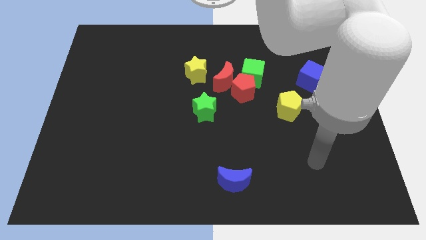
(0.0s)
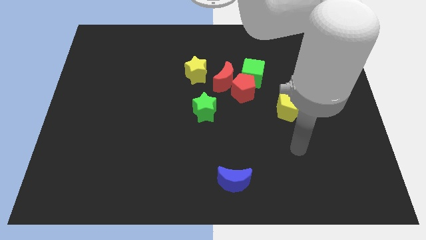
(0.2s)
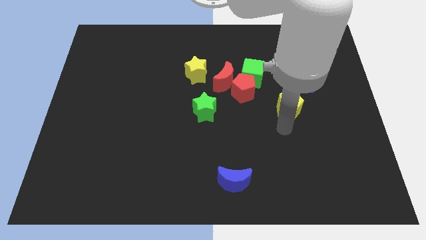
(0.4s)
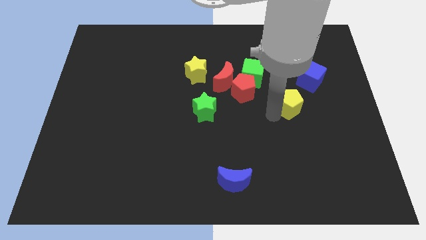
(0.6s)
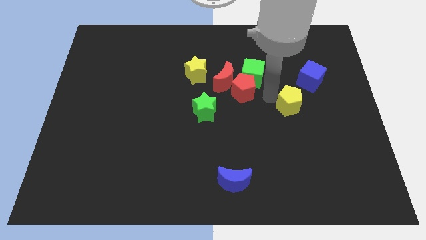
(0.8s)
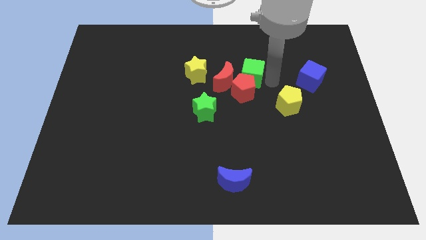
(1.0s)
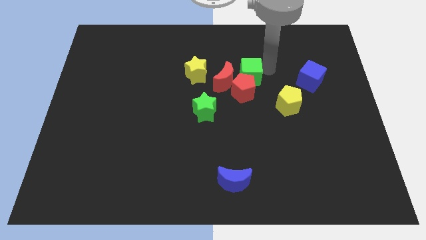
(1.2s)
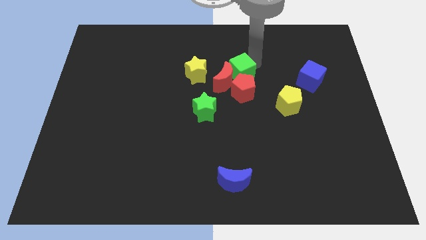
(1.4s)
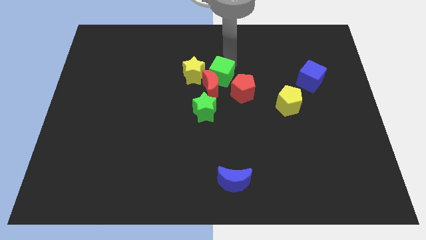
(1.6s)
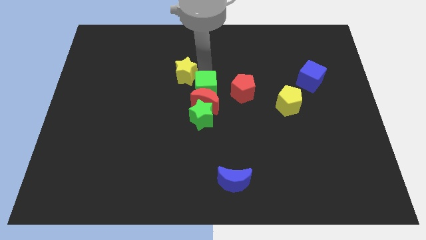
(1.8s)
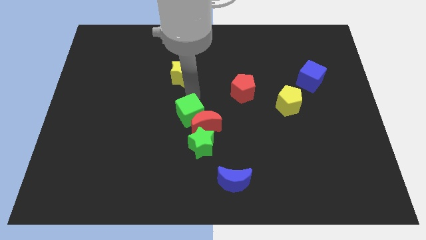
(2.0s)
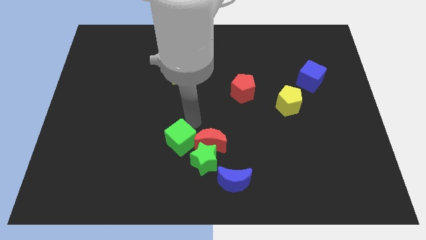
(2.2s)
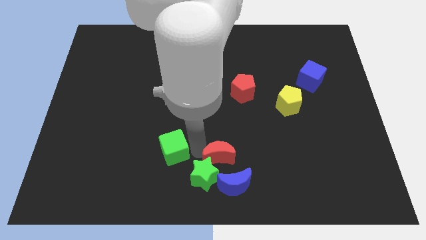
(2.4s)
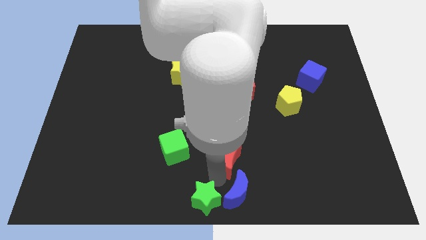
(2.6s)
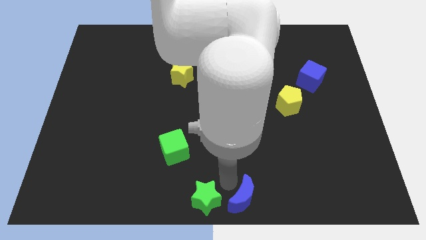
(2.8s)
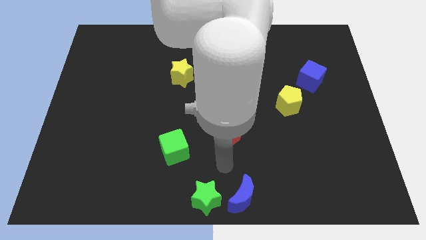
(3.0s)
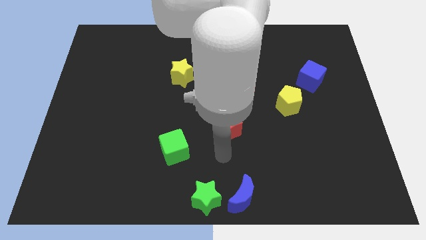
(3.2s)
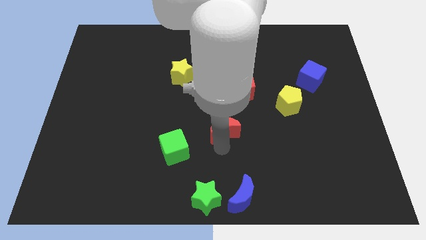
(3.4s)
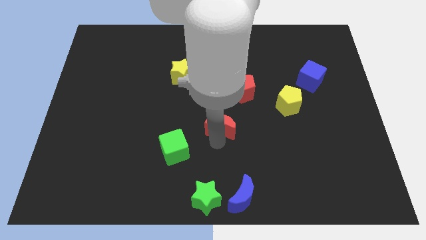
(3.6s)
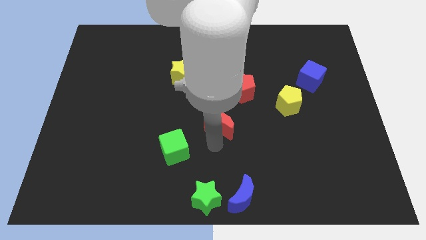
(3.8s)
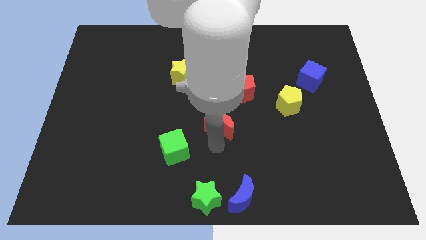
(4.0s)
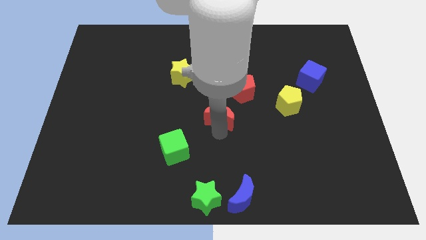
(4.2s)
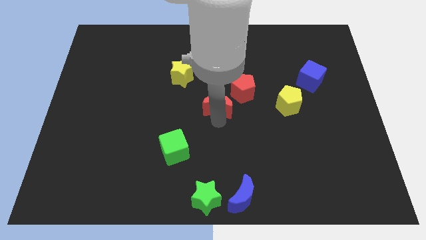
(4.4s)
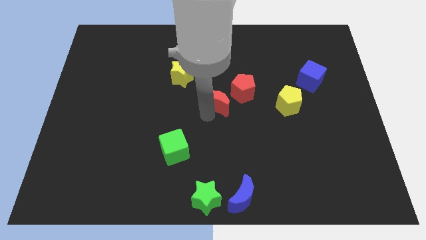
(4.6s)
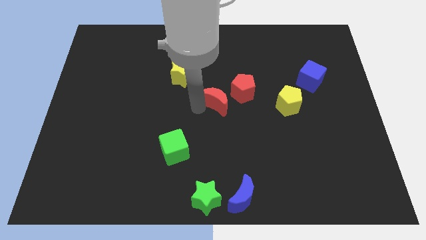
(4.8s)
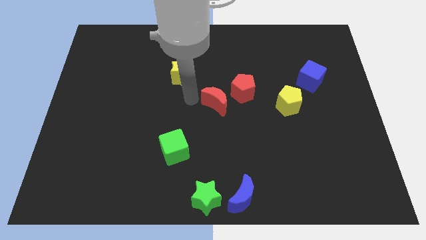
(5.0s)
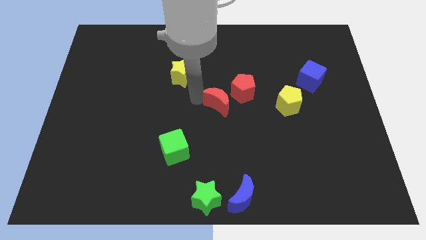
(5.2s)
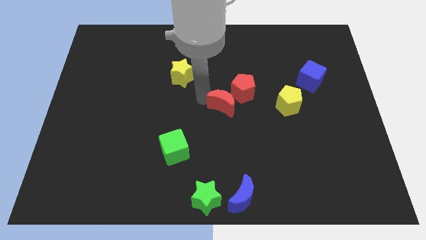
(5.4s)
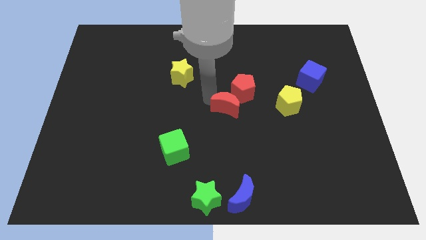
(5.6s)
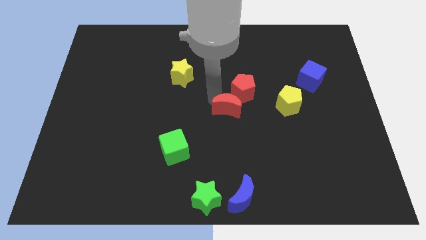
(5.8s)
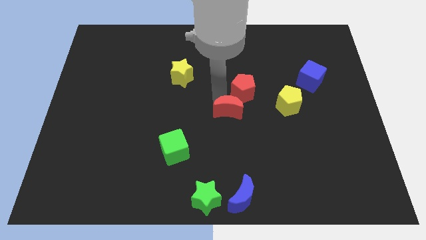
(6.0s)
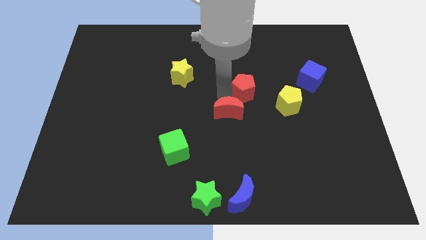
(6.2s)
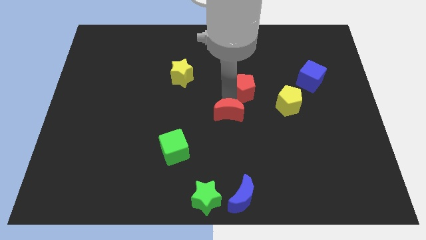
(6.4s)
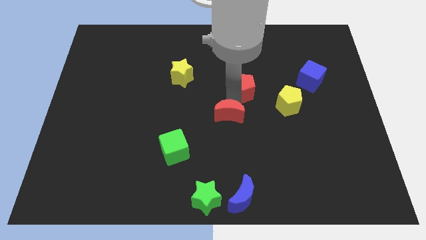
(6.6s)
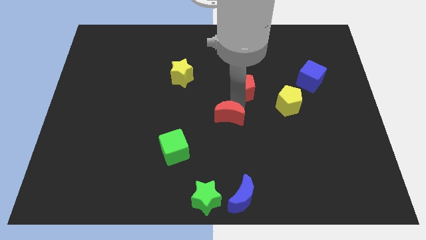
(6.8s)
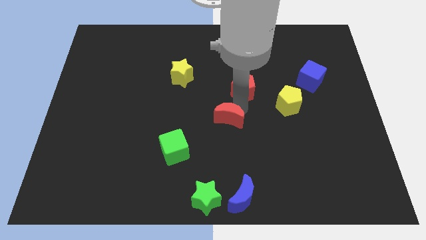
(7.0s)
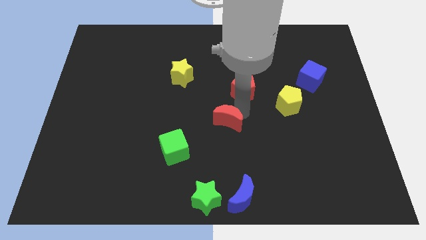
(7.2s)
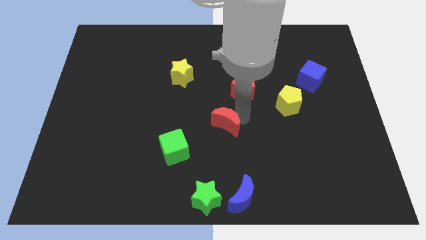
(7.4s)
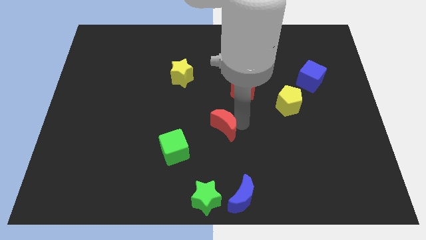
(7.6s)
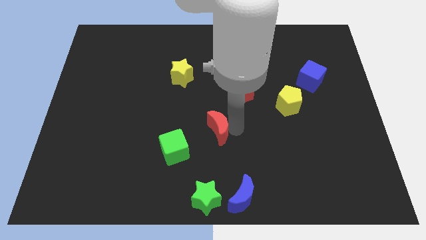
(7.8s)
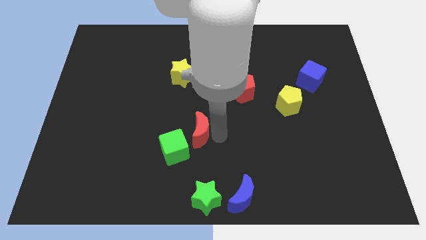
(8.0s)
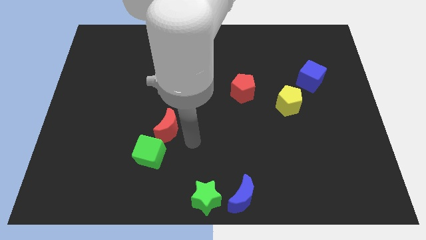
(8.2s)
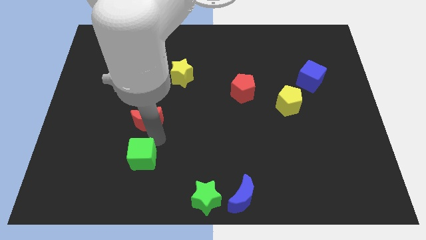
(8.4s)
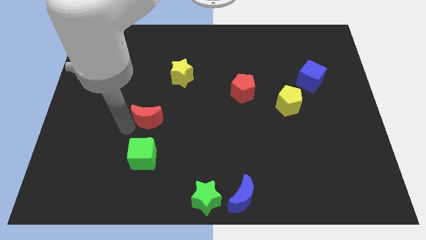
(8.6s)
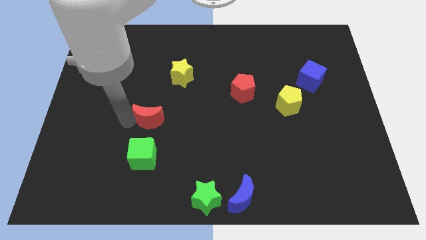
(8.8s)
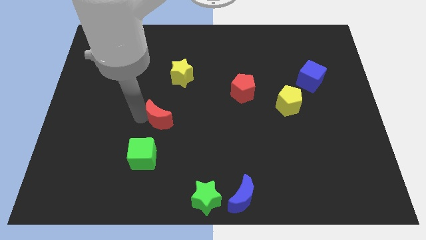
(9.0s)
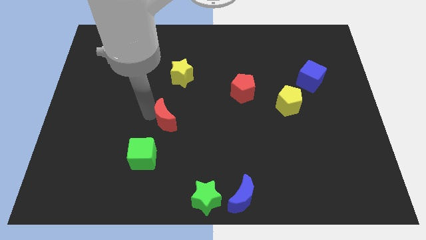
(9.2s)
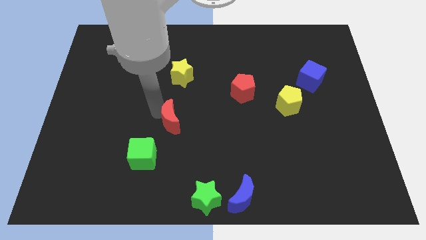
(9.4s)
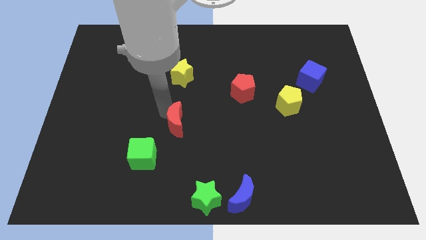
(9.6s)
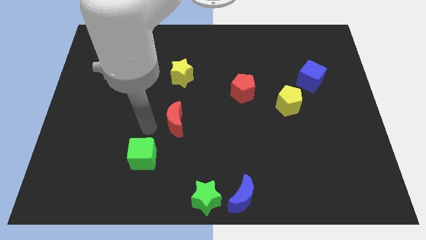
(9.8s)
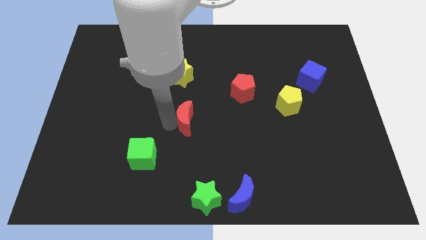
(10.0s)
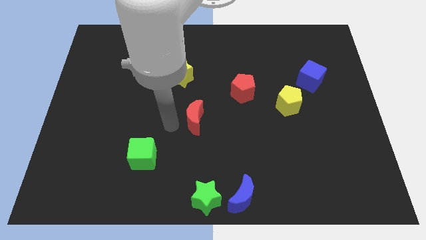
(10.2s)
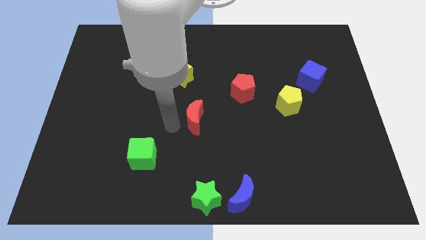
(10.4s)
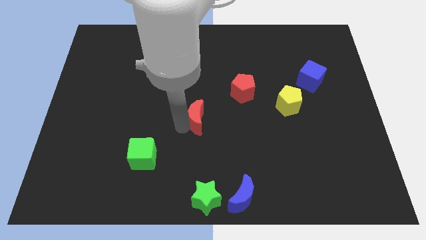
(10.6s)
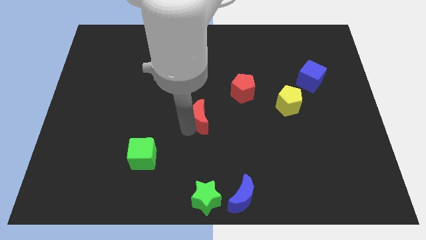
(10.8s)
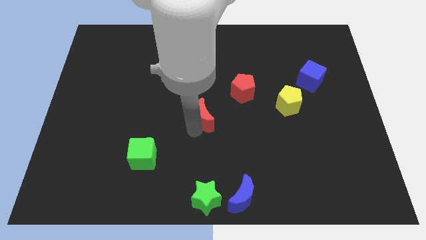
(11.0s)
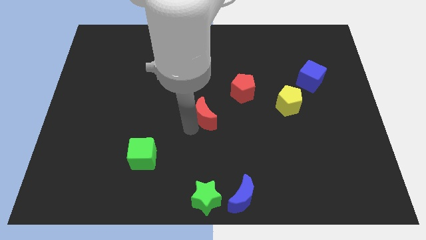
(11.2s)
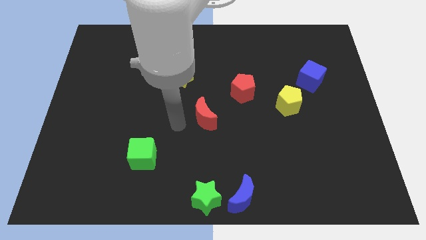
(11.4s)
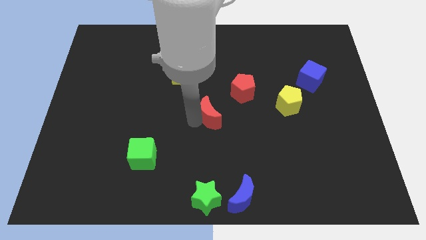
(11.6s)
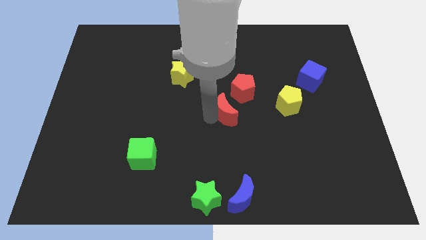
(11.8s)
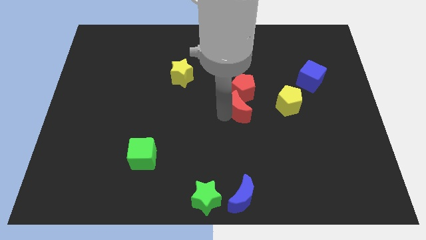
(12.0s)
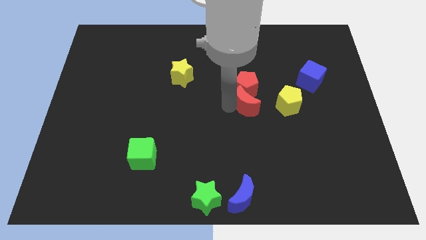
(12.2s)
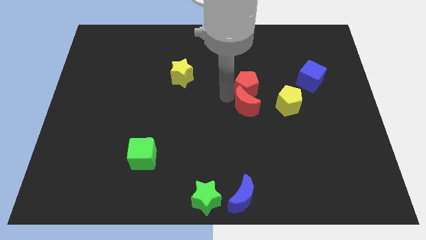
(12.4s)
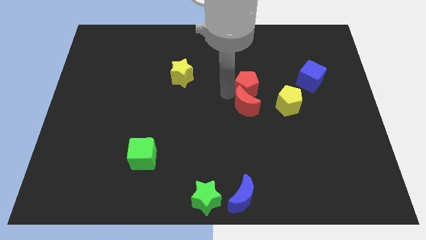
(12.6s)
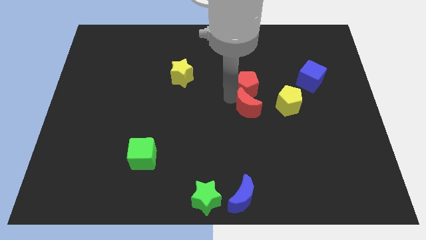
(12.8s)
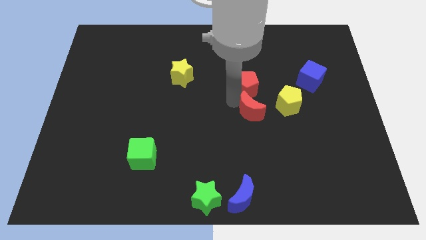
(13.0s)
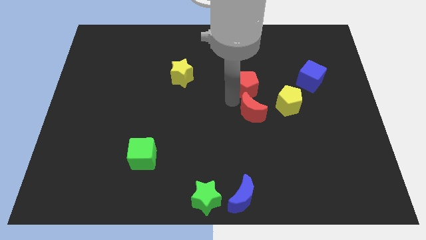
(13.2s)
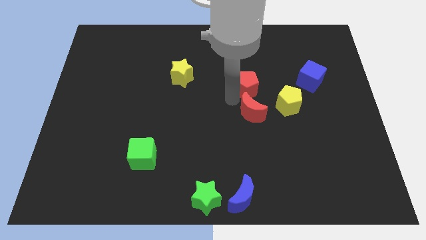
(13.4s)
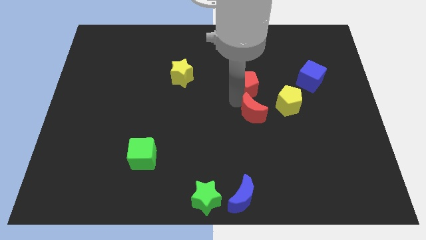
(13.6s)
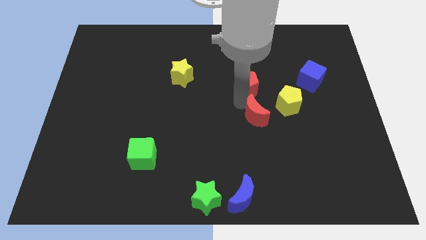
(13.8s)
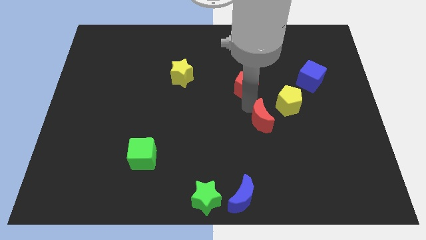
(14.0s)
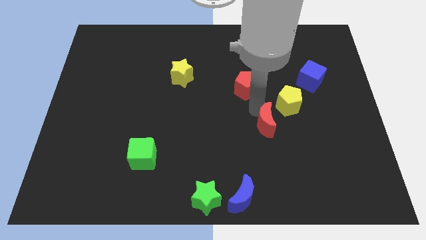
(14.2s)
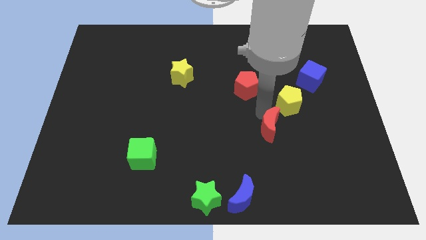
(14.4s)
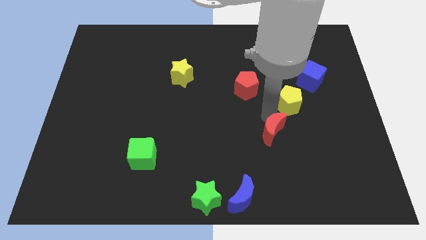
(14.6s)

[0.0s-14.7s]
move the red moon to the bottom side of the yellow pentagon
